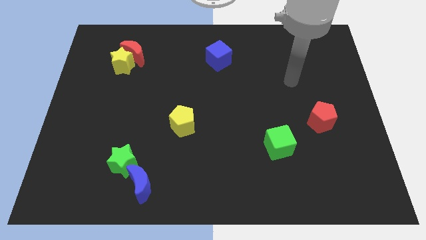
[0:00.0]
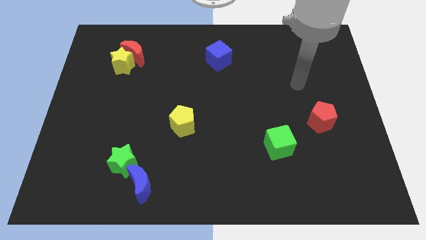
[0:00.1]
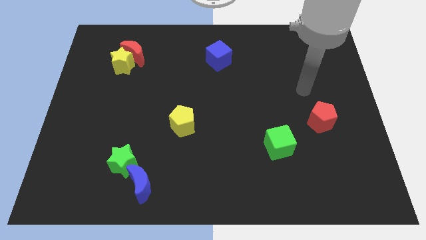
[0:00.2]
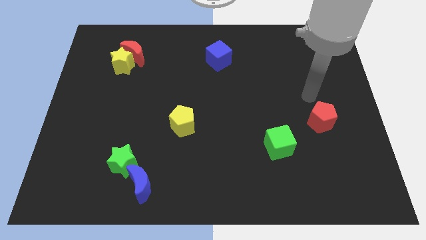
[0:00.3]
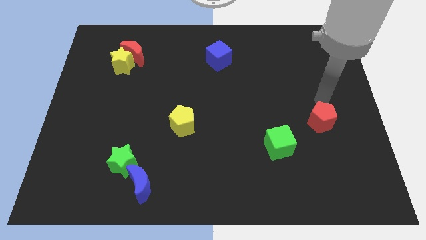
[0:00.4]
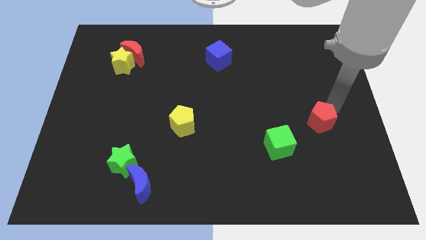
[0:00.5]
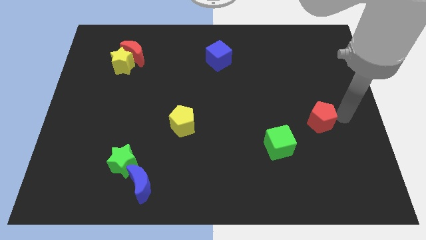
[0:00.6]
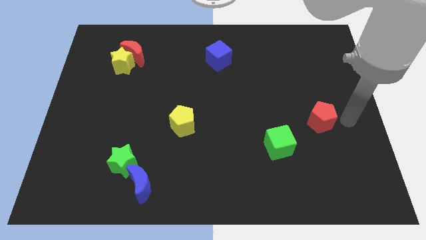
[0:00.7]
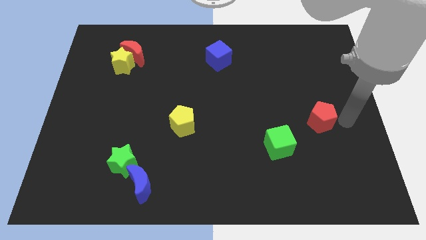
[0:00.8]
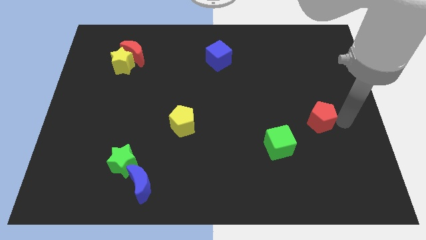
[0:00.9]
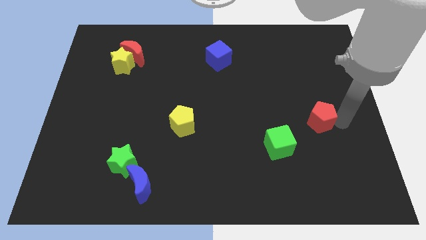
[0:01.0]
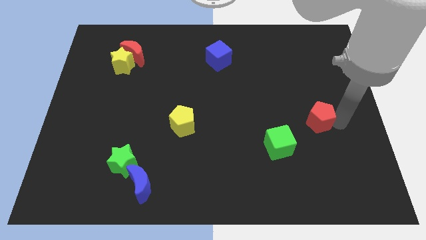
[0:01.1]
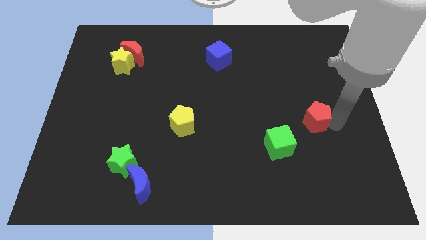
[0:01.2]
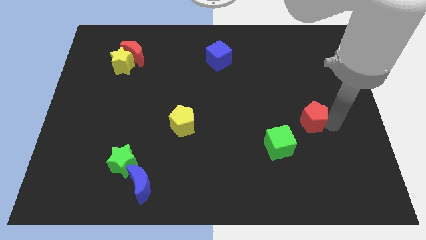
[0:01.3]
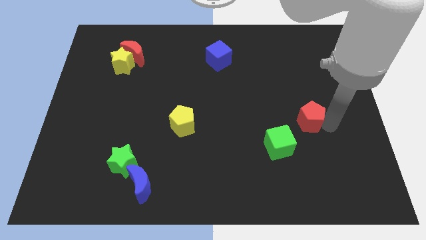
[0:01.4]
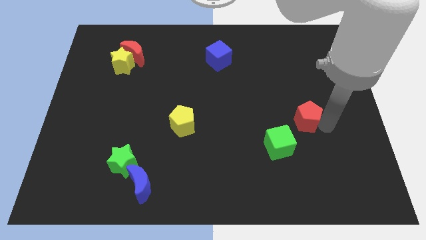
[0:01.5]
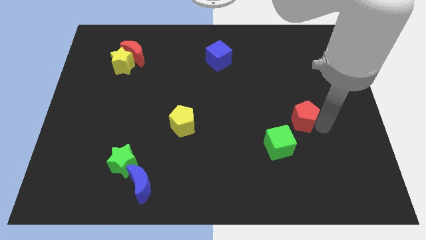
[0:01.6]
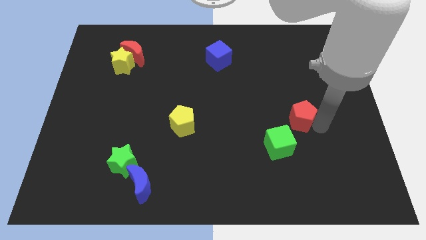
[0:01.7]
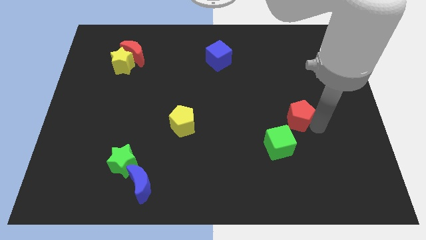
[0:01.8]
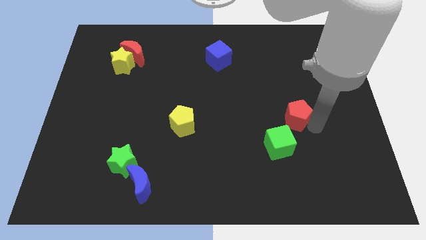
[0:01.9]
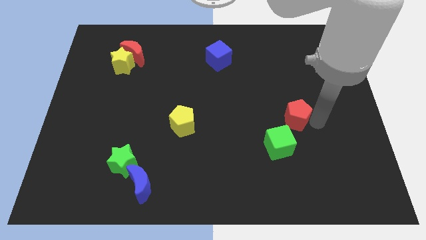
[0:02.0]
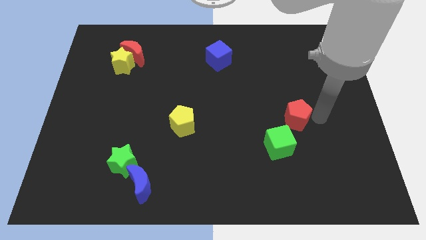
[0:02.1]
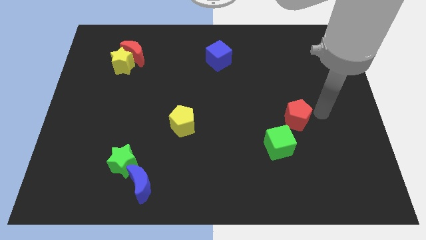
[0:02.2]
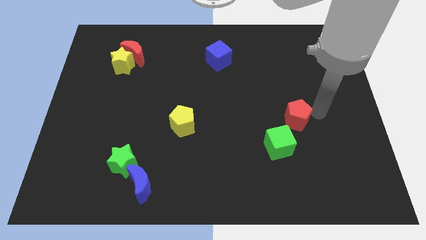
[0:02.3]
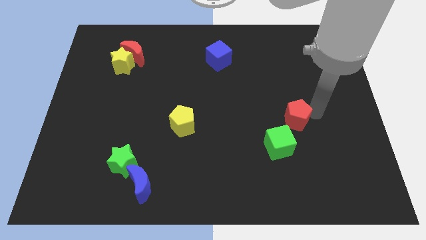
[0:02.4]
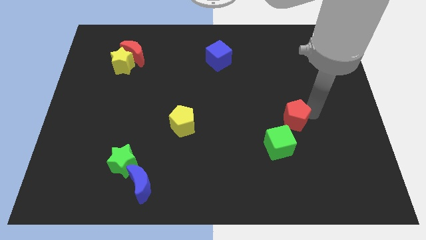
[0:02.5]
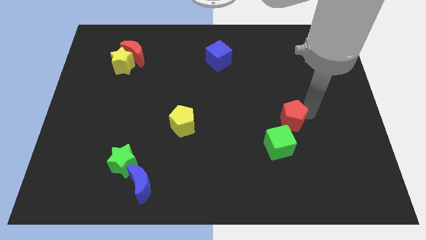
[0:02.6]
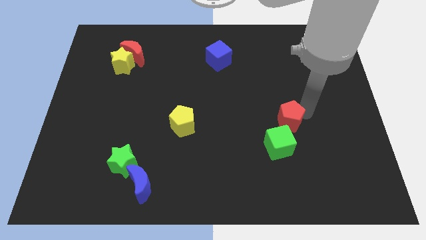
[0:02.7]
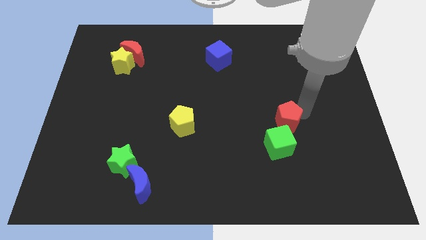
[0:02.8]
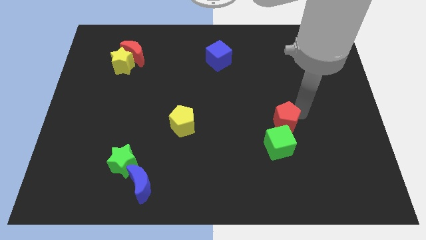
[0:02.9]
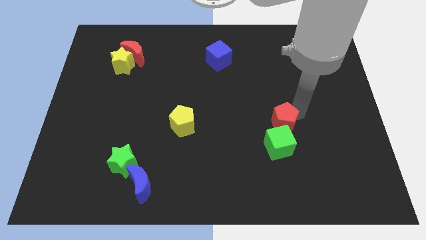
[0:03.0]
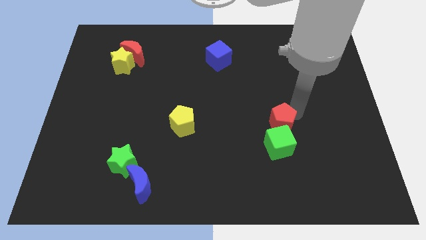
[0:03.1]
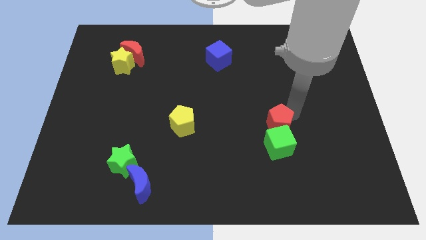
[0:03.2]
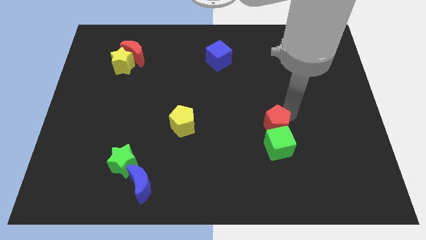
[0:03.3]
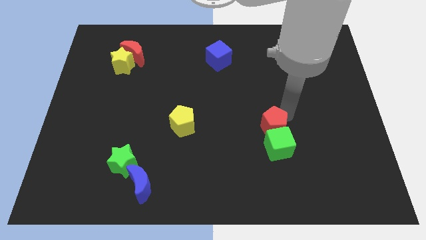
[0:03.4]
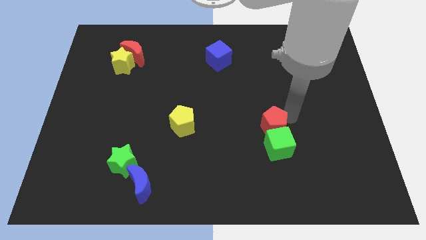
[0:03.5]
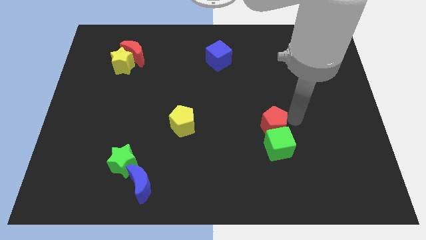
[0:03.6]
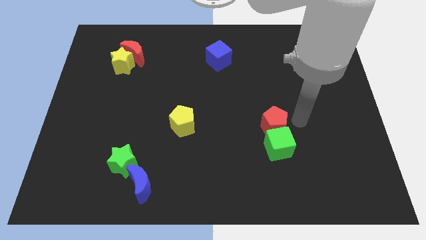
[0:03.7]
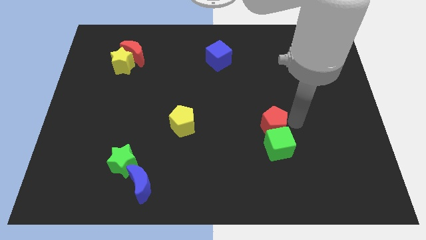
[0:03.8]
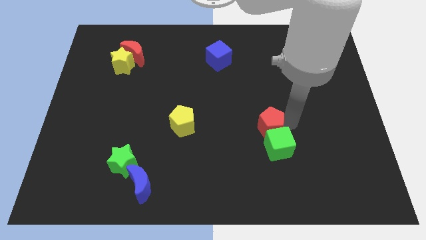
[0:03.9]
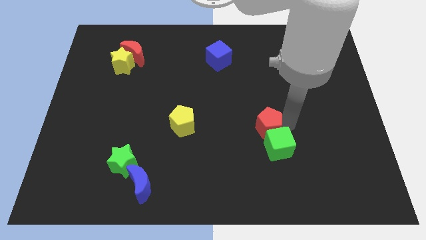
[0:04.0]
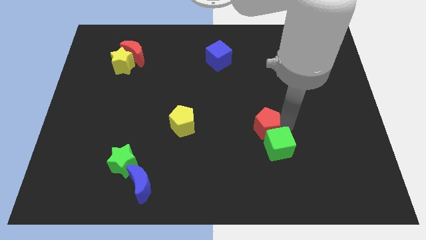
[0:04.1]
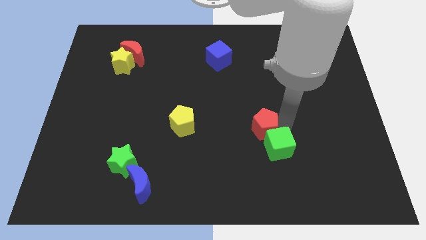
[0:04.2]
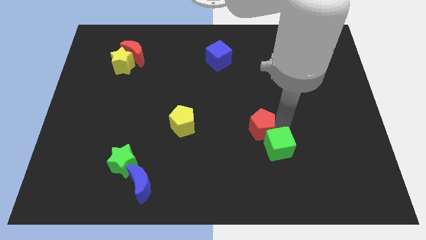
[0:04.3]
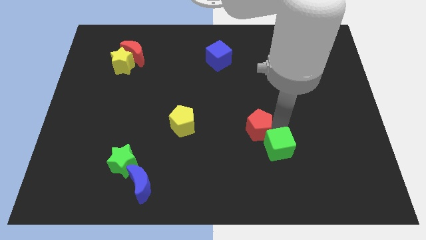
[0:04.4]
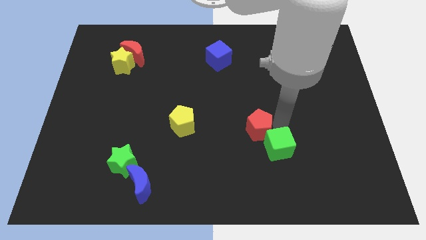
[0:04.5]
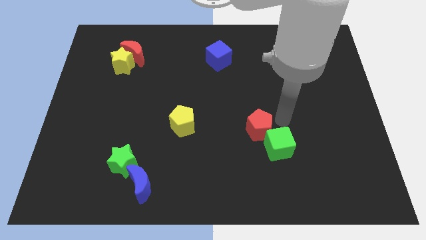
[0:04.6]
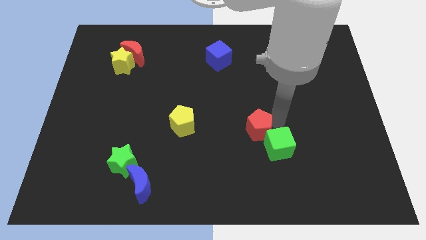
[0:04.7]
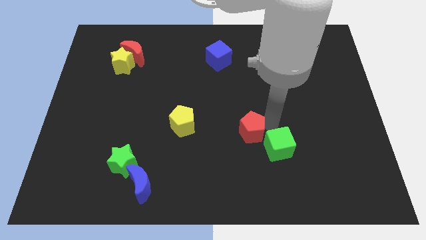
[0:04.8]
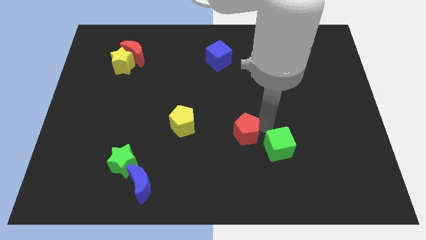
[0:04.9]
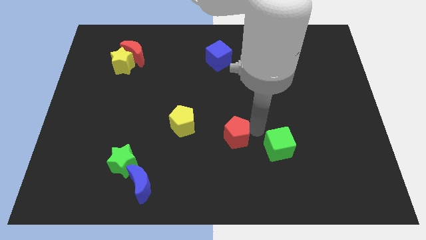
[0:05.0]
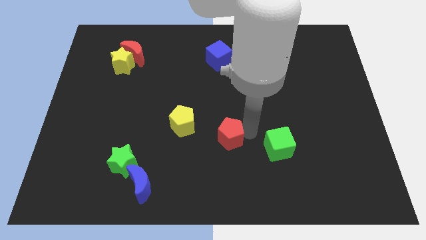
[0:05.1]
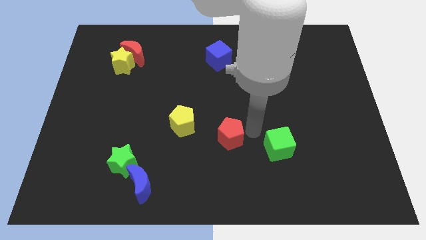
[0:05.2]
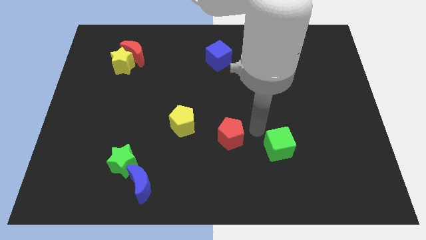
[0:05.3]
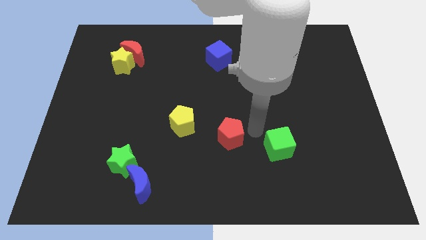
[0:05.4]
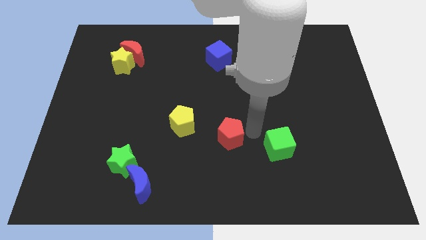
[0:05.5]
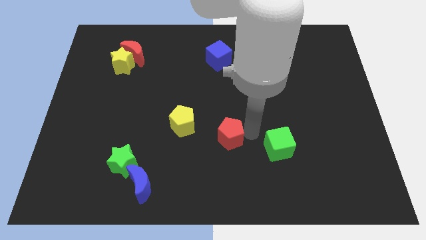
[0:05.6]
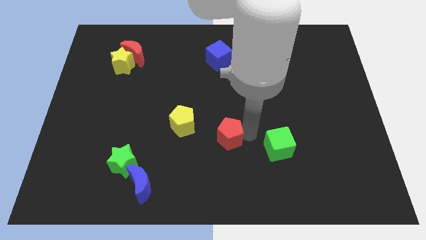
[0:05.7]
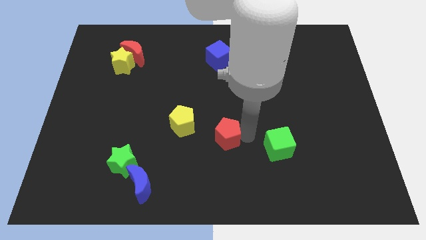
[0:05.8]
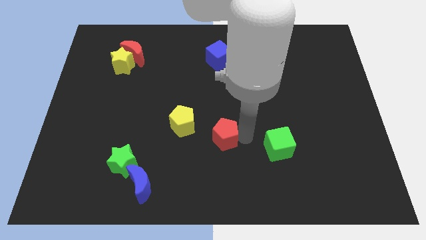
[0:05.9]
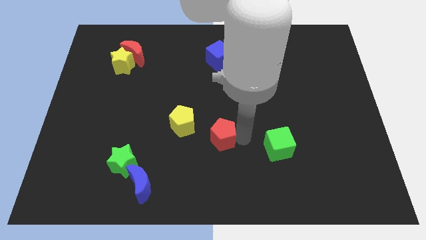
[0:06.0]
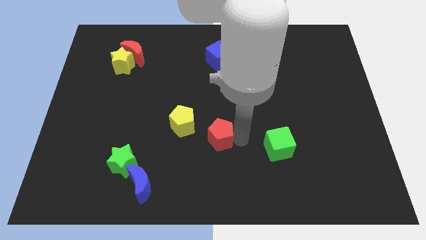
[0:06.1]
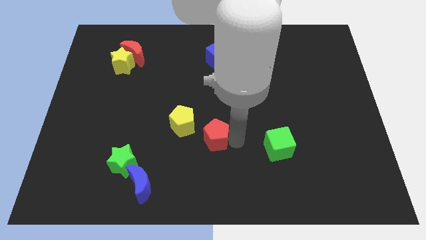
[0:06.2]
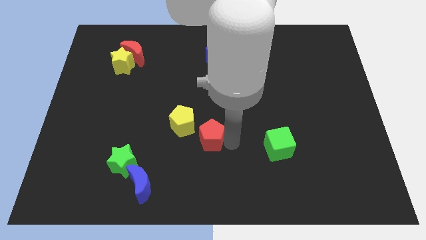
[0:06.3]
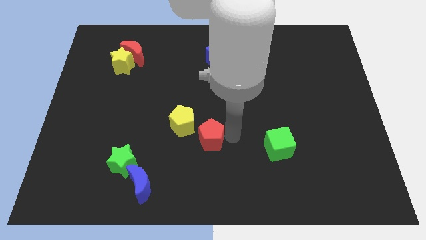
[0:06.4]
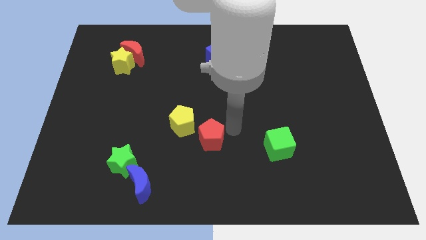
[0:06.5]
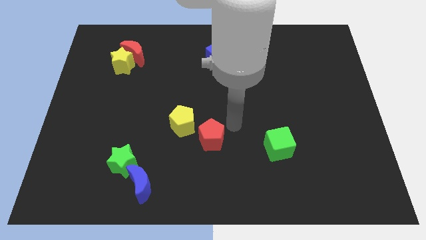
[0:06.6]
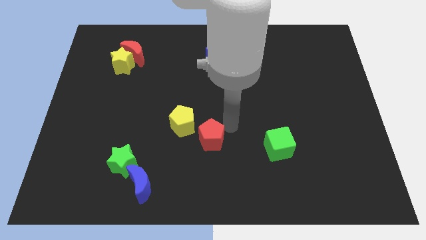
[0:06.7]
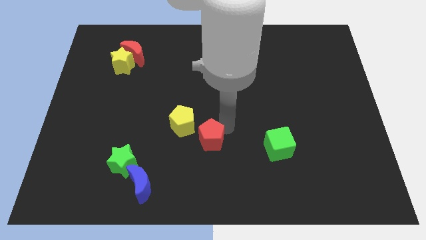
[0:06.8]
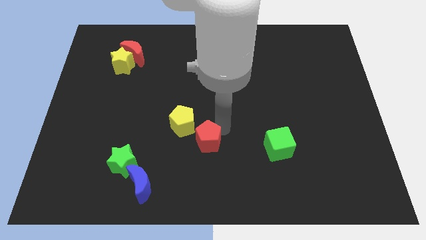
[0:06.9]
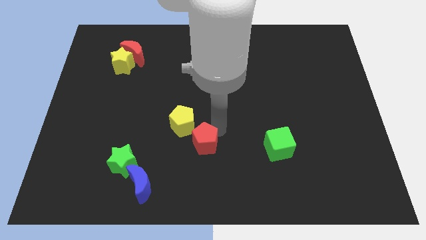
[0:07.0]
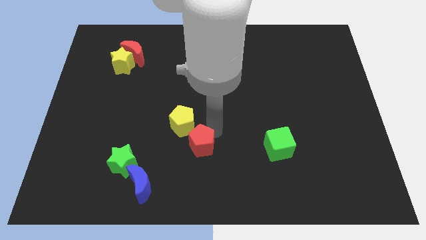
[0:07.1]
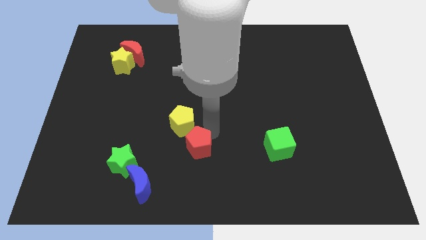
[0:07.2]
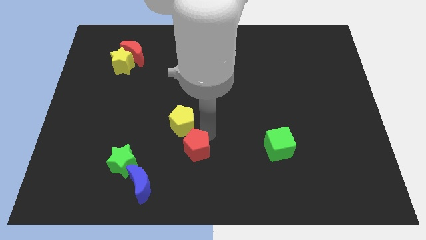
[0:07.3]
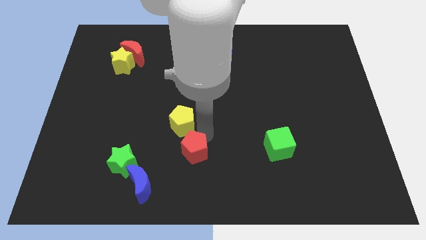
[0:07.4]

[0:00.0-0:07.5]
put the red pentagon to the right side of the green star
